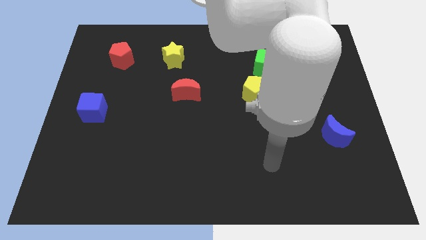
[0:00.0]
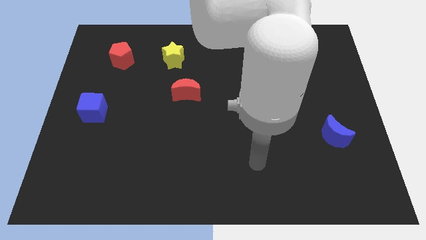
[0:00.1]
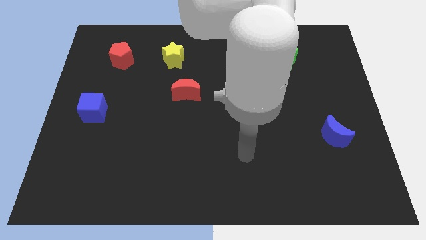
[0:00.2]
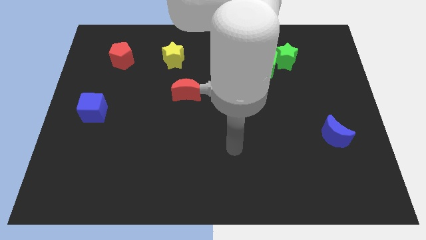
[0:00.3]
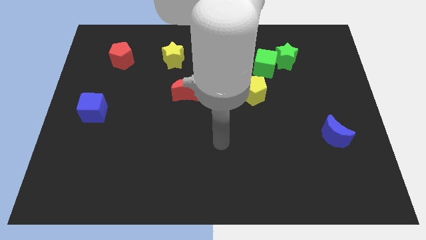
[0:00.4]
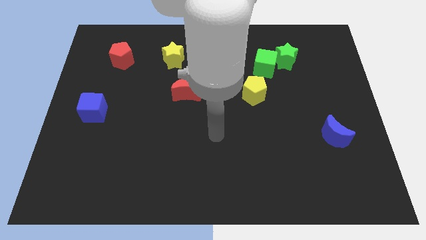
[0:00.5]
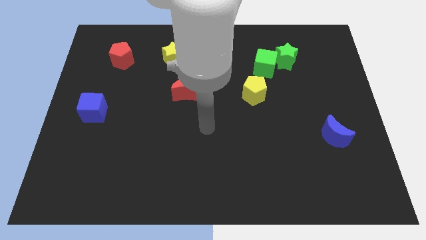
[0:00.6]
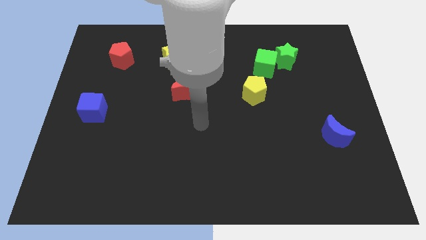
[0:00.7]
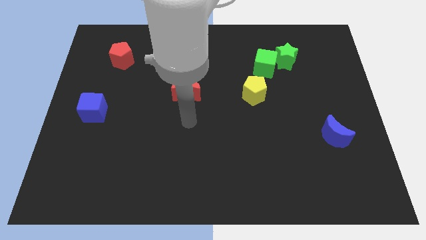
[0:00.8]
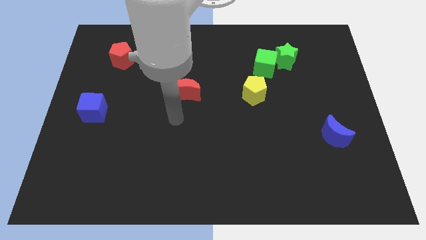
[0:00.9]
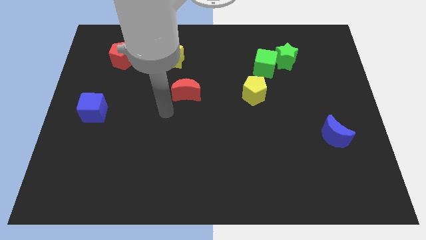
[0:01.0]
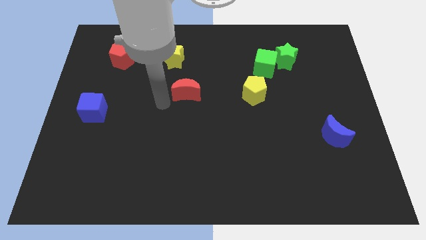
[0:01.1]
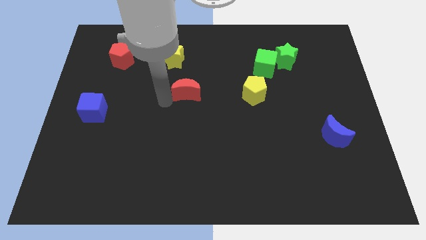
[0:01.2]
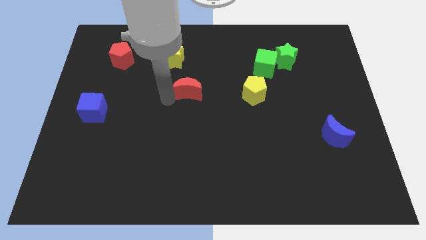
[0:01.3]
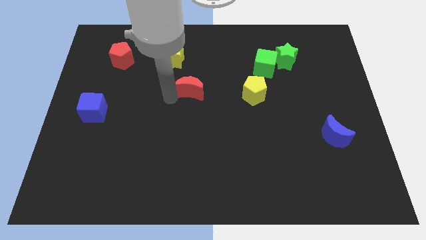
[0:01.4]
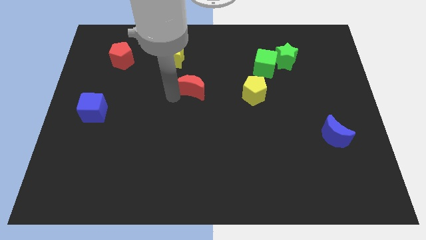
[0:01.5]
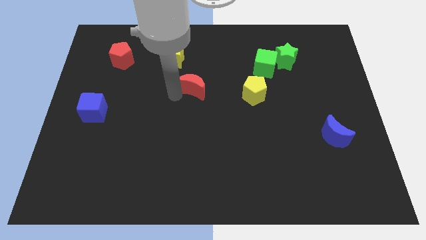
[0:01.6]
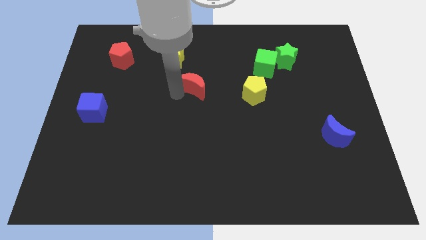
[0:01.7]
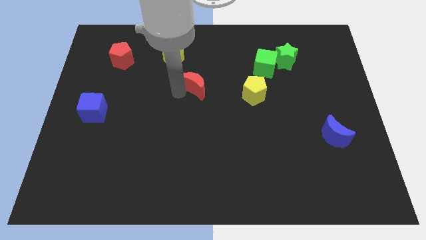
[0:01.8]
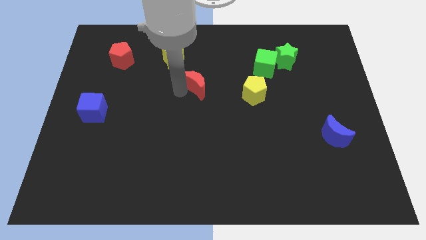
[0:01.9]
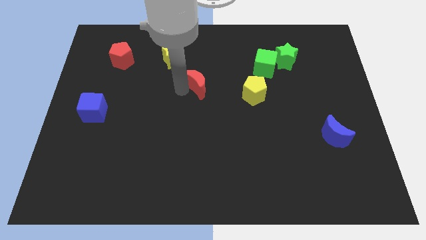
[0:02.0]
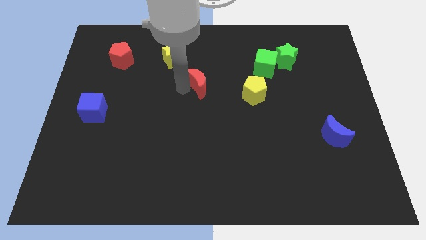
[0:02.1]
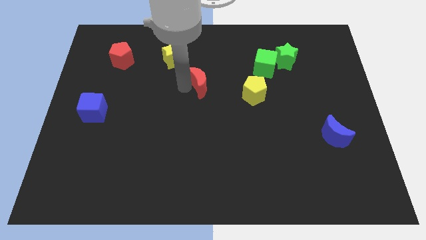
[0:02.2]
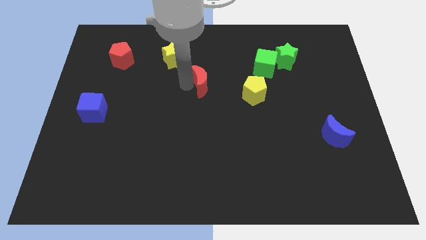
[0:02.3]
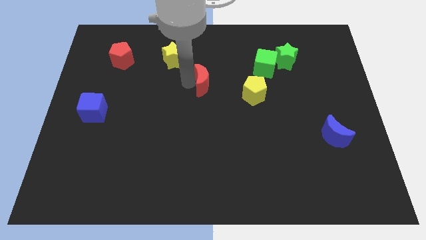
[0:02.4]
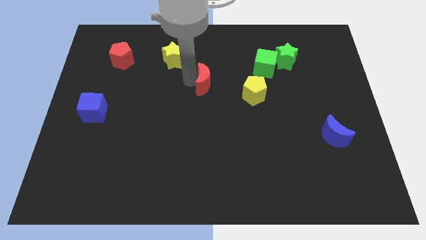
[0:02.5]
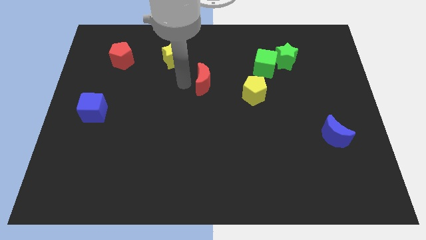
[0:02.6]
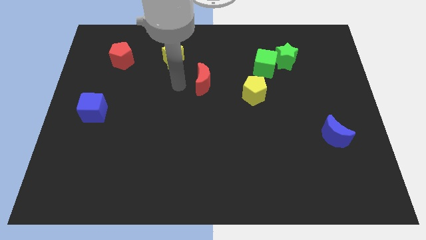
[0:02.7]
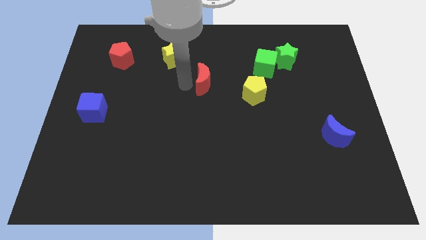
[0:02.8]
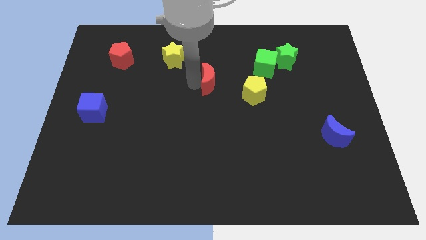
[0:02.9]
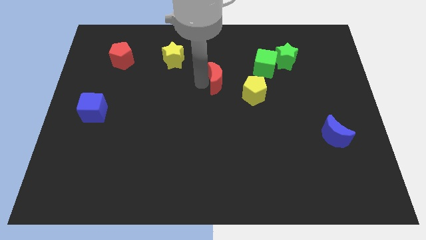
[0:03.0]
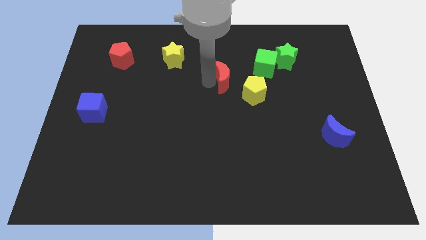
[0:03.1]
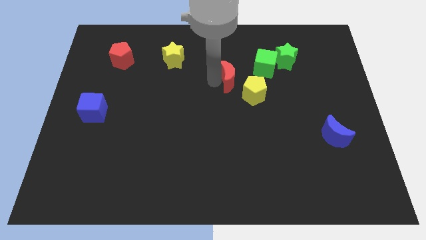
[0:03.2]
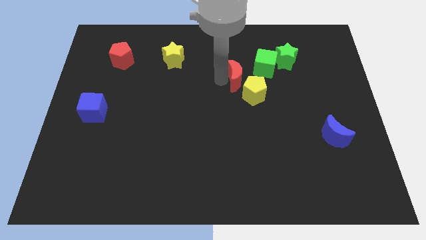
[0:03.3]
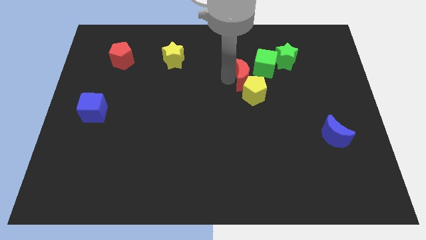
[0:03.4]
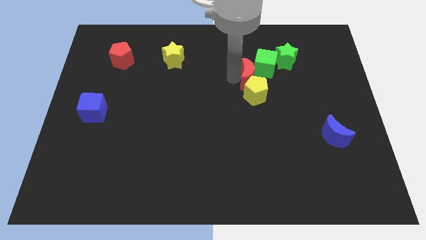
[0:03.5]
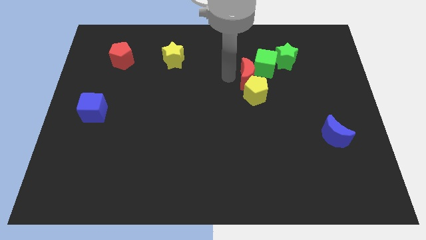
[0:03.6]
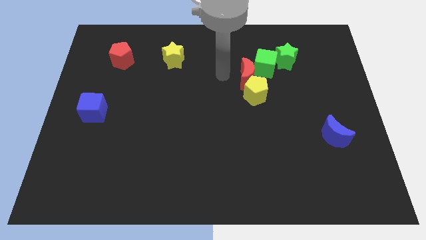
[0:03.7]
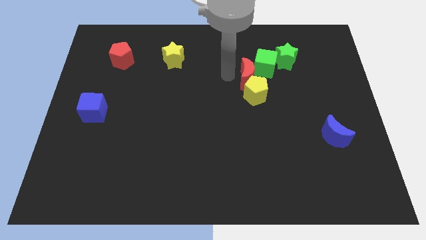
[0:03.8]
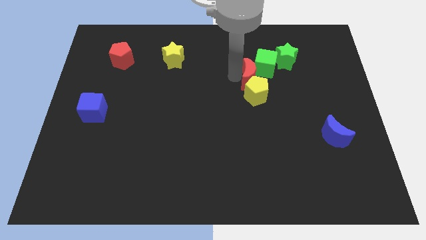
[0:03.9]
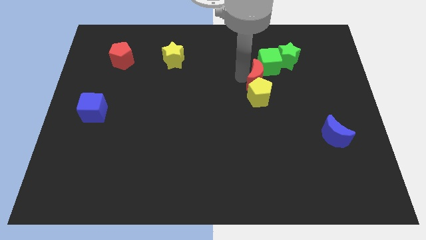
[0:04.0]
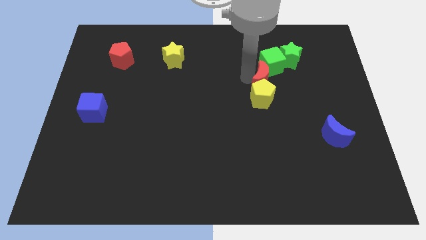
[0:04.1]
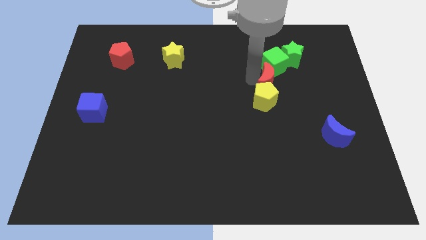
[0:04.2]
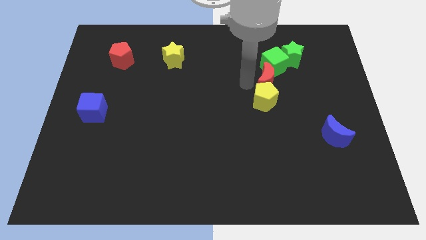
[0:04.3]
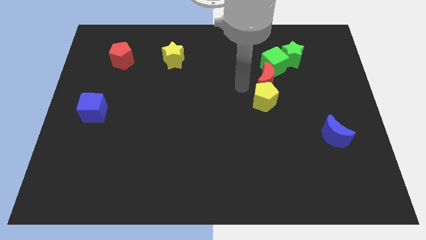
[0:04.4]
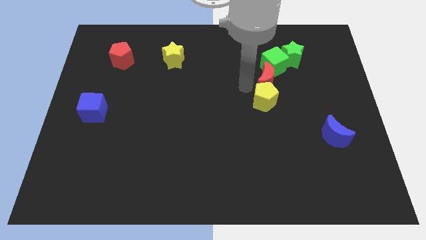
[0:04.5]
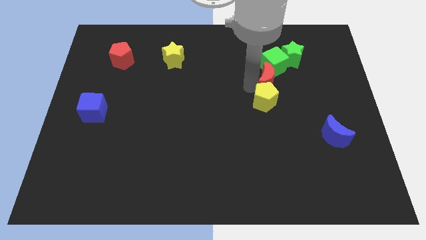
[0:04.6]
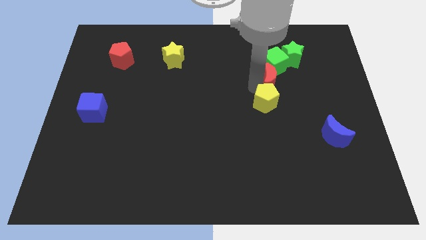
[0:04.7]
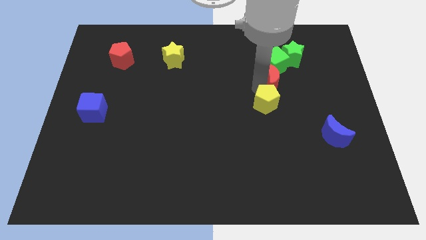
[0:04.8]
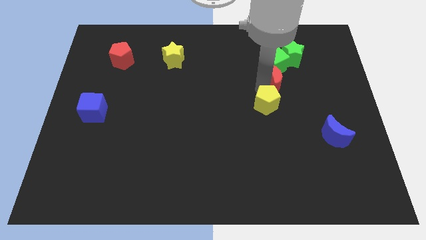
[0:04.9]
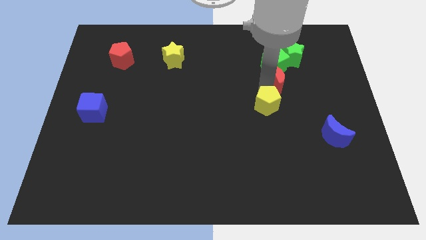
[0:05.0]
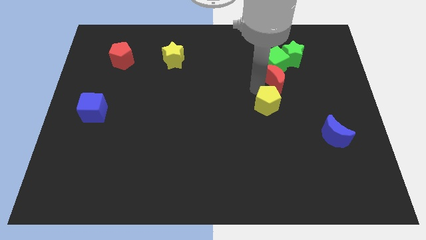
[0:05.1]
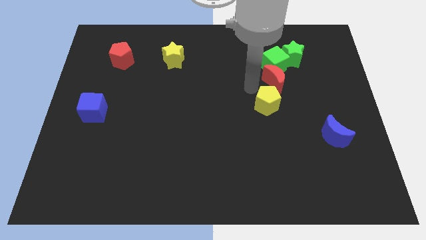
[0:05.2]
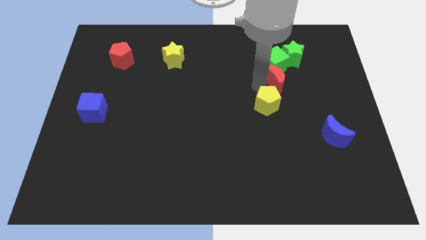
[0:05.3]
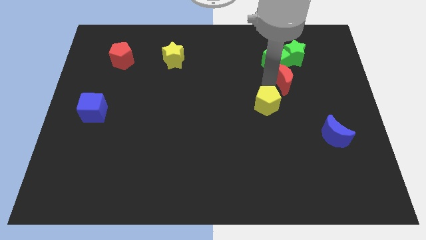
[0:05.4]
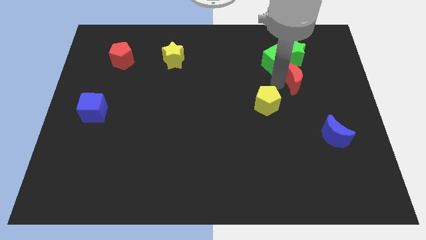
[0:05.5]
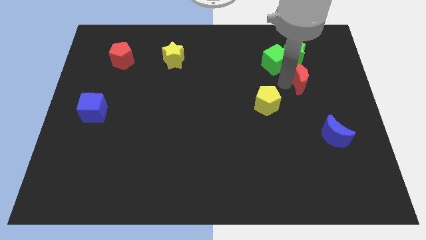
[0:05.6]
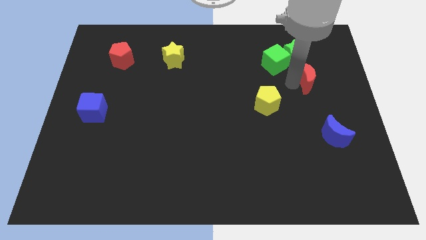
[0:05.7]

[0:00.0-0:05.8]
move the red moon to the bottom right side of the green star

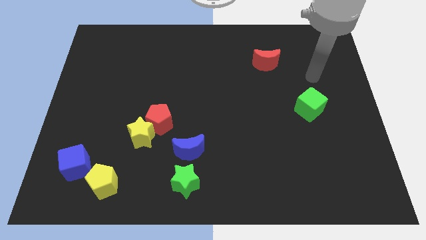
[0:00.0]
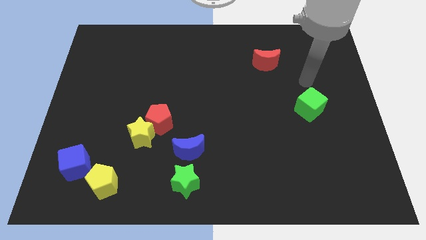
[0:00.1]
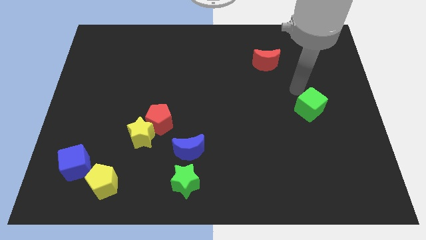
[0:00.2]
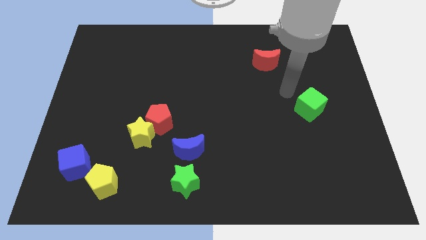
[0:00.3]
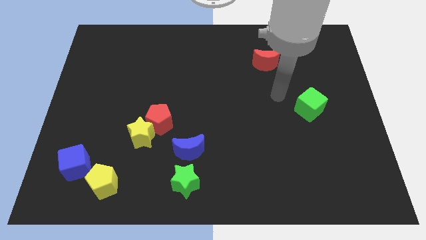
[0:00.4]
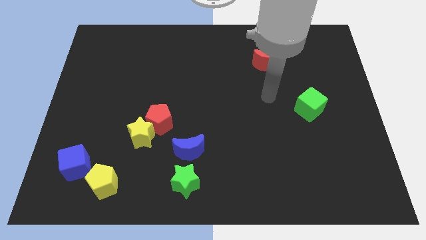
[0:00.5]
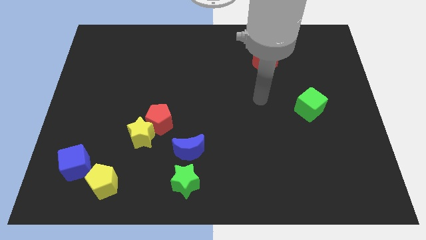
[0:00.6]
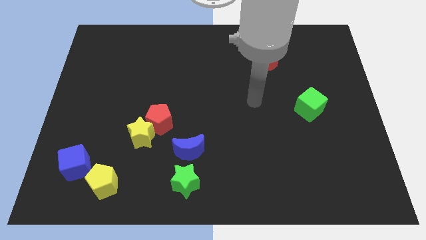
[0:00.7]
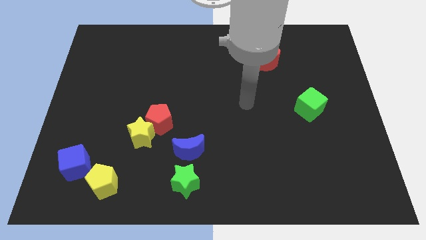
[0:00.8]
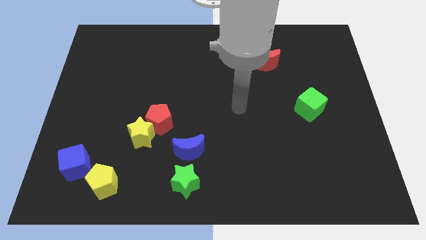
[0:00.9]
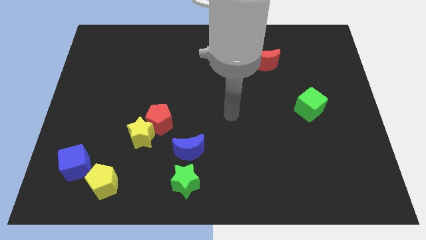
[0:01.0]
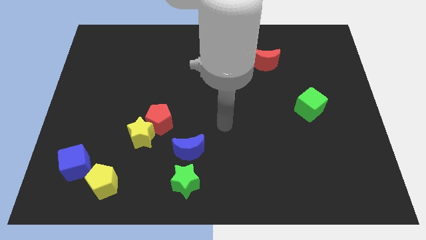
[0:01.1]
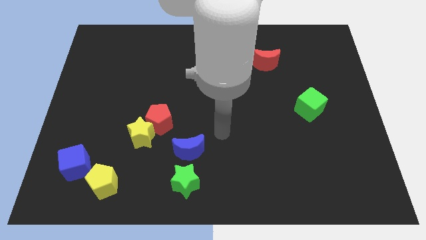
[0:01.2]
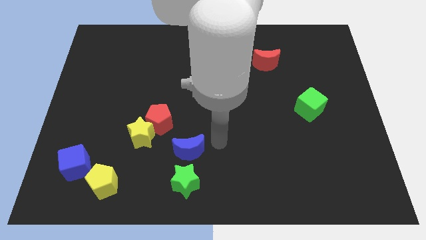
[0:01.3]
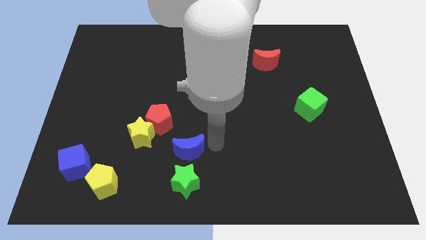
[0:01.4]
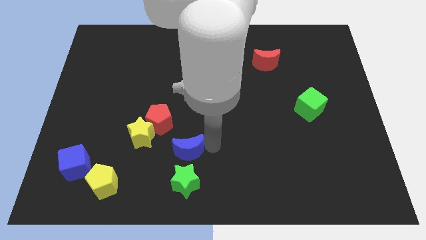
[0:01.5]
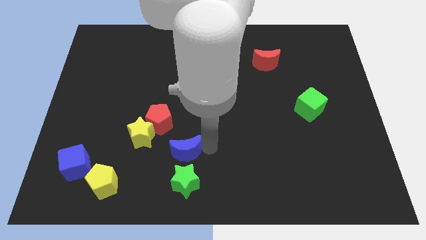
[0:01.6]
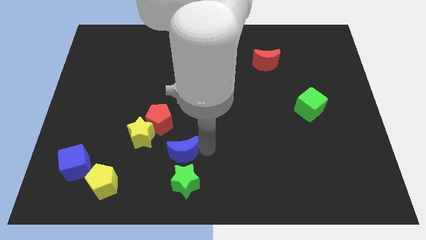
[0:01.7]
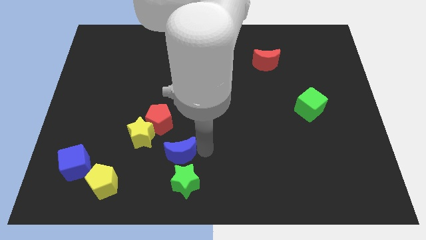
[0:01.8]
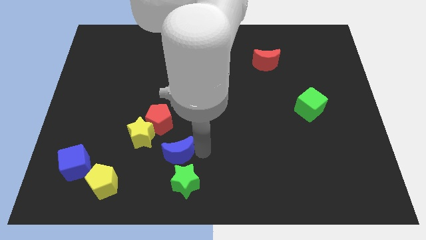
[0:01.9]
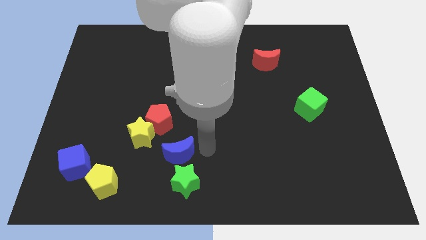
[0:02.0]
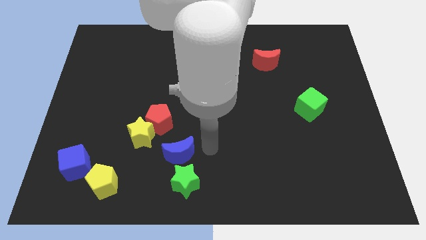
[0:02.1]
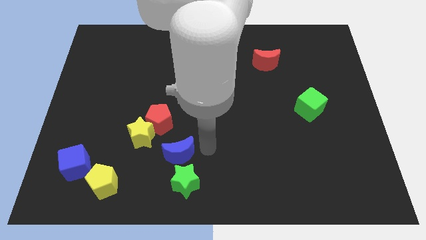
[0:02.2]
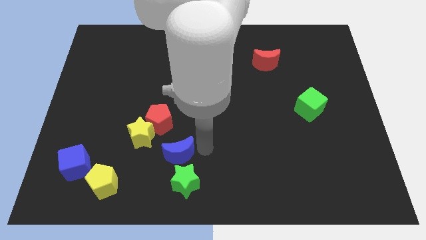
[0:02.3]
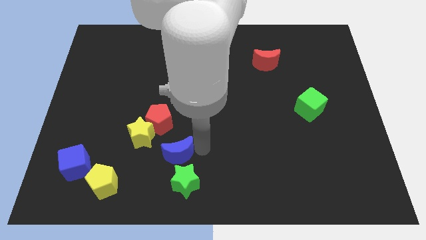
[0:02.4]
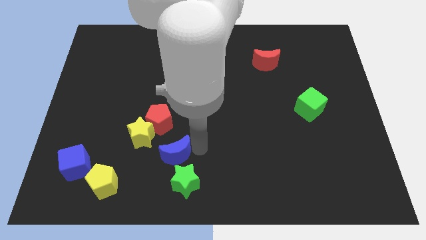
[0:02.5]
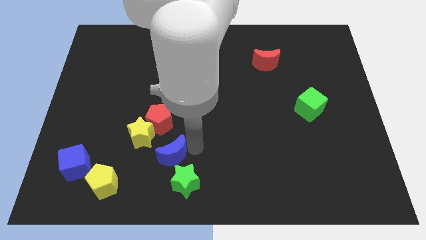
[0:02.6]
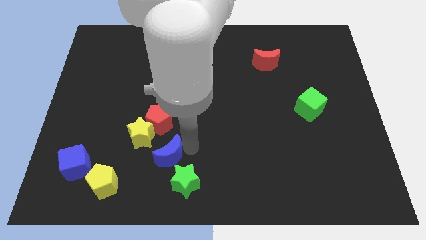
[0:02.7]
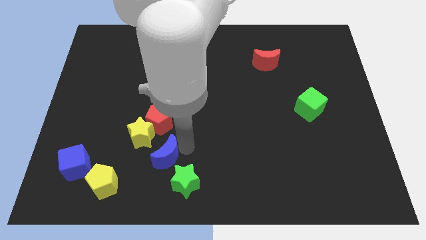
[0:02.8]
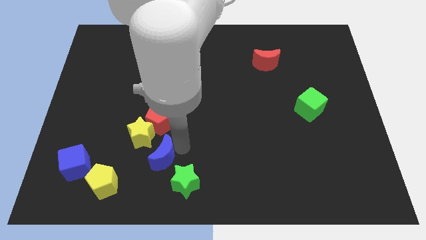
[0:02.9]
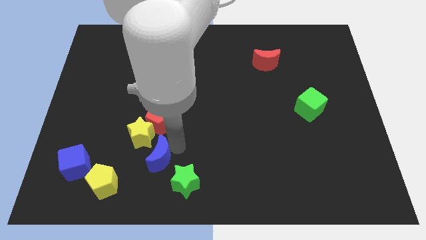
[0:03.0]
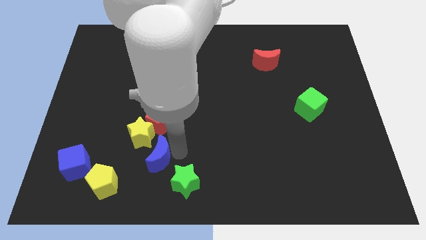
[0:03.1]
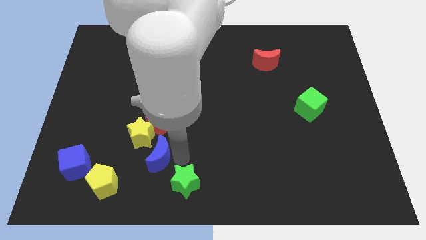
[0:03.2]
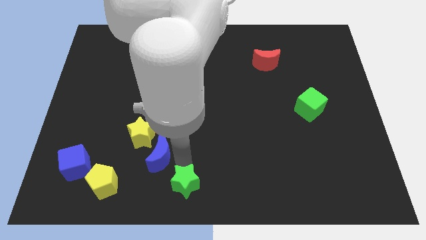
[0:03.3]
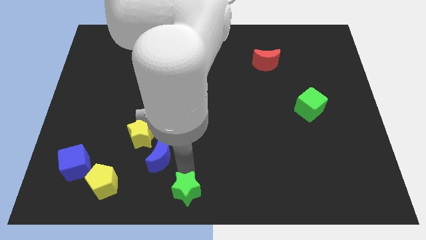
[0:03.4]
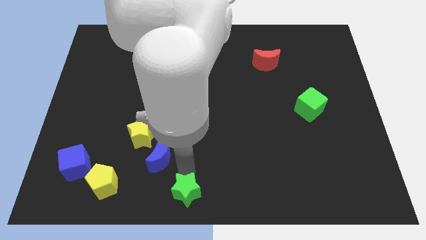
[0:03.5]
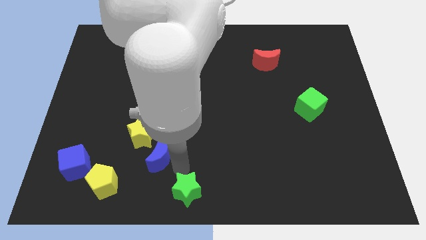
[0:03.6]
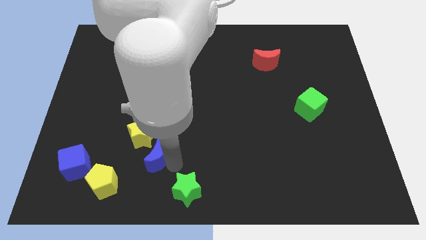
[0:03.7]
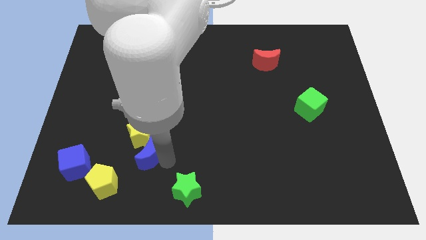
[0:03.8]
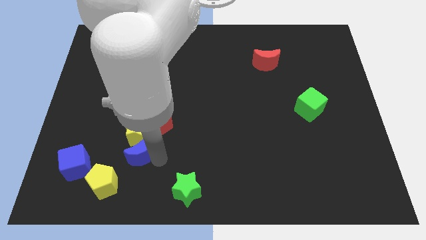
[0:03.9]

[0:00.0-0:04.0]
push the blue moon to the bottom left of the red pentagon
